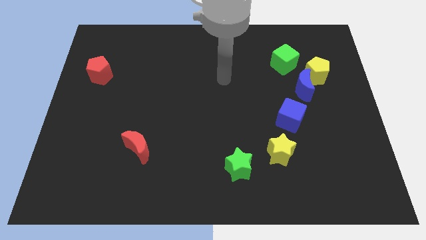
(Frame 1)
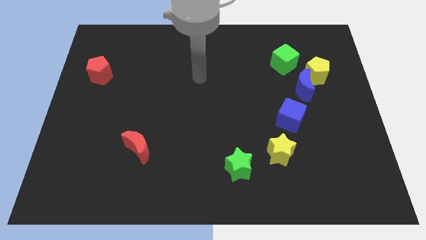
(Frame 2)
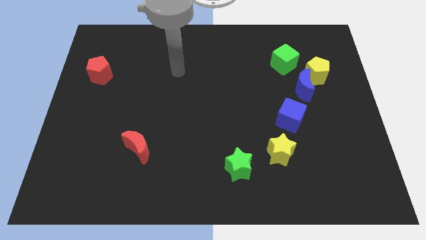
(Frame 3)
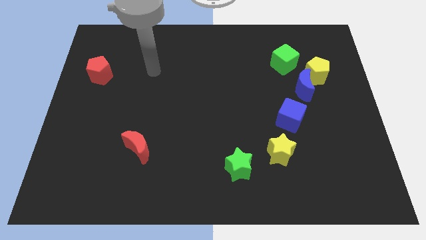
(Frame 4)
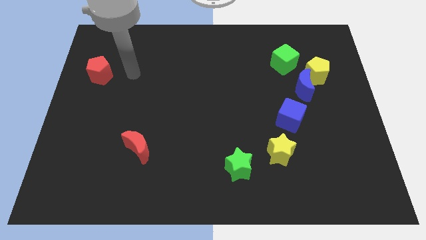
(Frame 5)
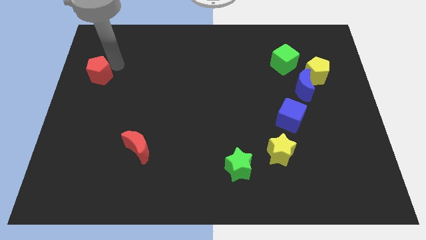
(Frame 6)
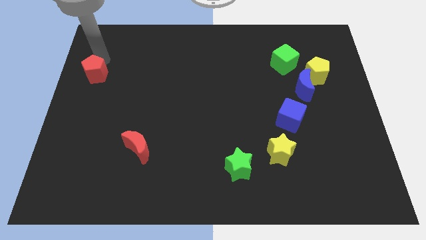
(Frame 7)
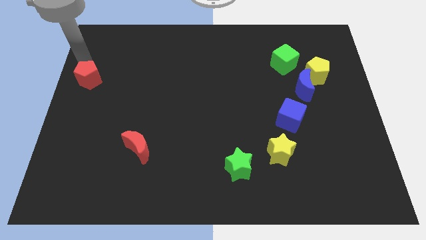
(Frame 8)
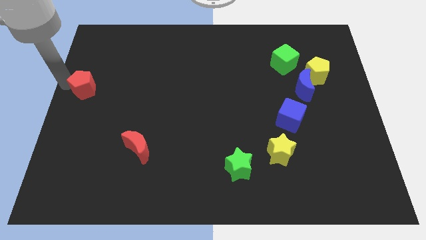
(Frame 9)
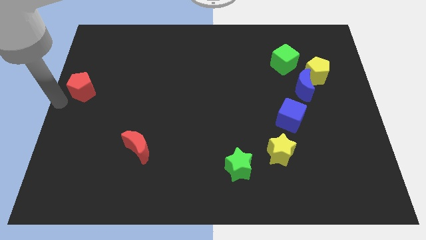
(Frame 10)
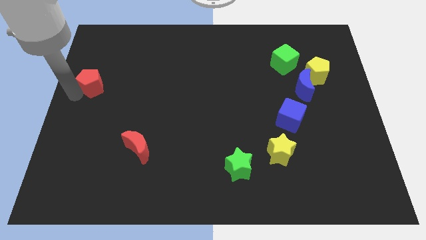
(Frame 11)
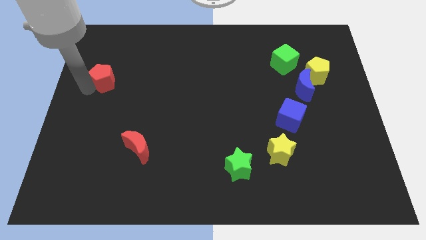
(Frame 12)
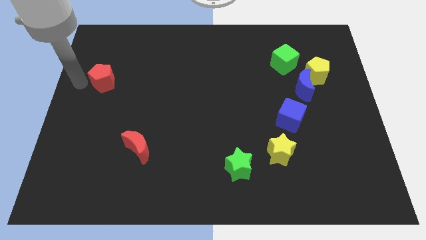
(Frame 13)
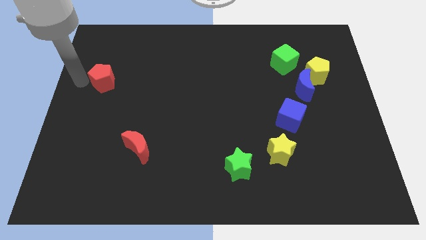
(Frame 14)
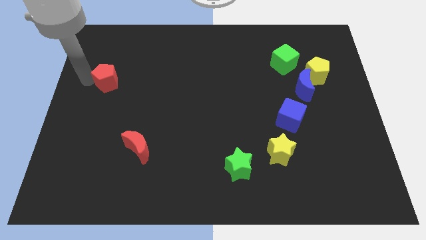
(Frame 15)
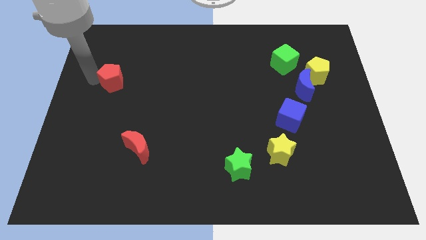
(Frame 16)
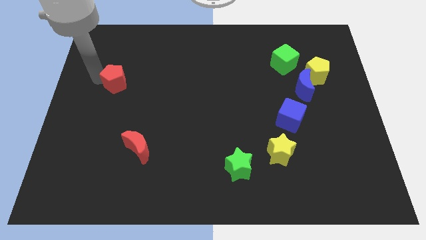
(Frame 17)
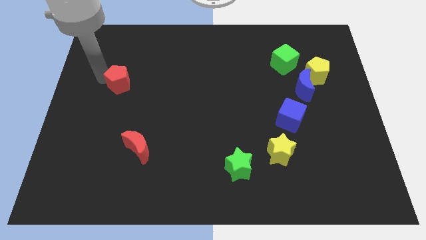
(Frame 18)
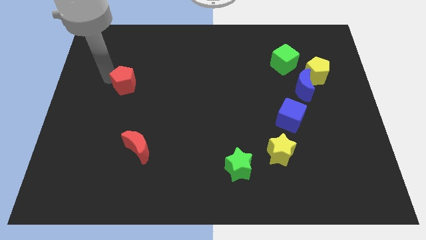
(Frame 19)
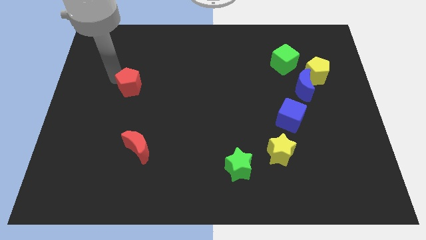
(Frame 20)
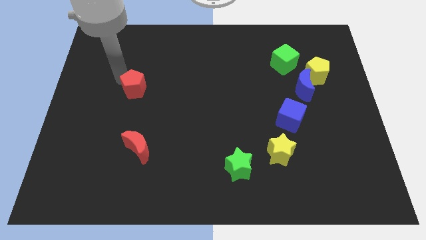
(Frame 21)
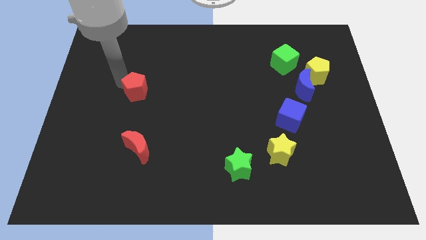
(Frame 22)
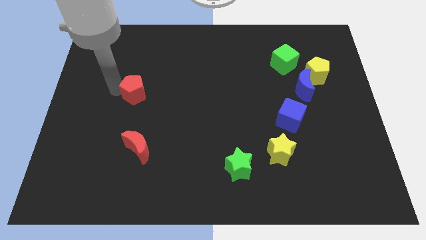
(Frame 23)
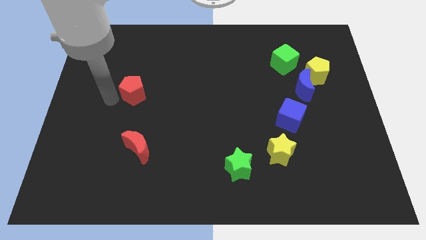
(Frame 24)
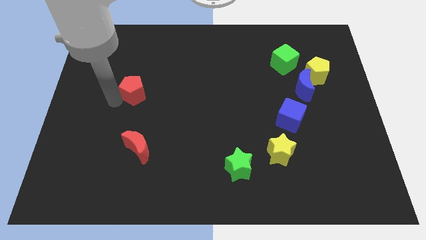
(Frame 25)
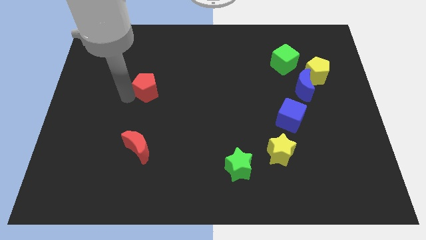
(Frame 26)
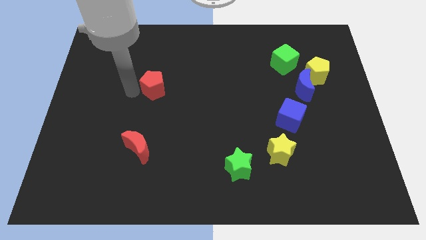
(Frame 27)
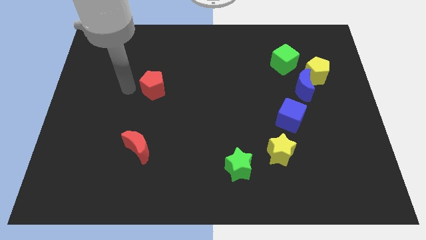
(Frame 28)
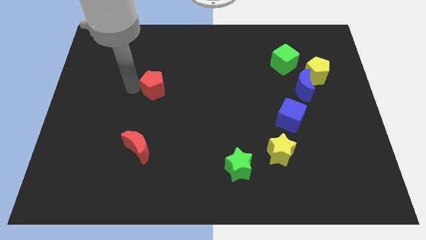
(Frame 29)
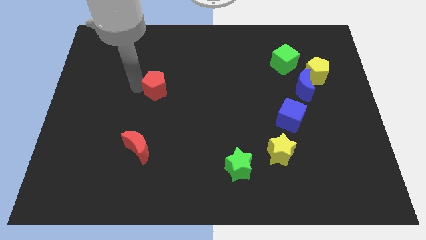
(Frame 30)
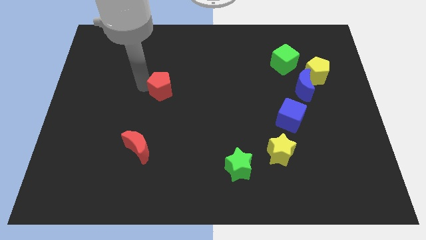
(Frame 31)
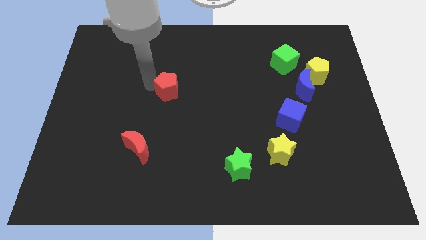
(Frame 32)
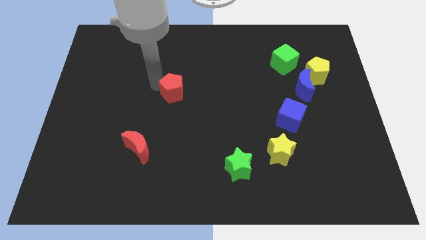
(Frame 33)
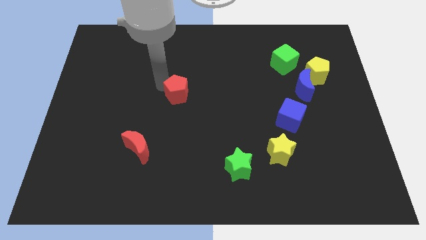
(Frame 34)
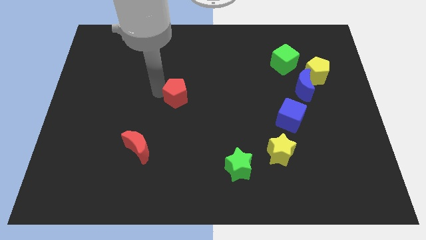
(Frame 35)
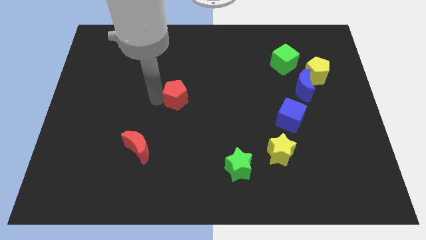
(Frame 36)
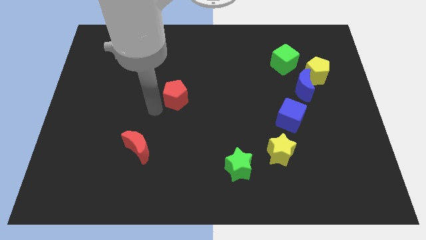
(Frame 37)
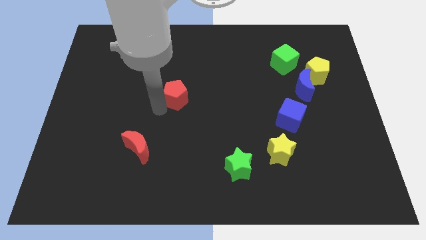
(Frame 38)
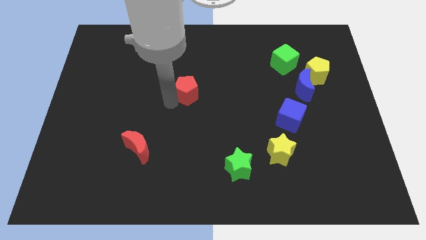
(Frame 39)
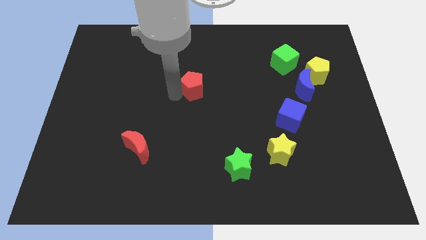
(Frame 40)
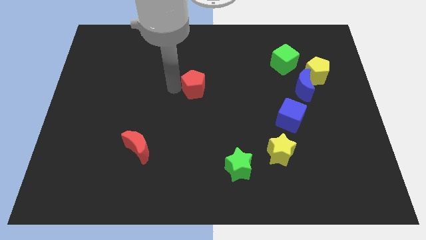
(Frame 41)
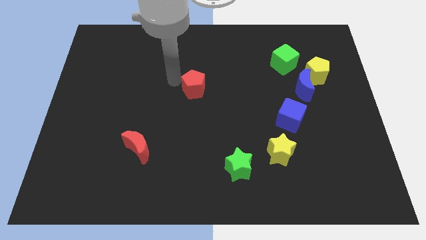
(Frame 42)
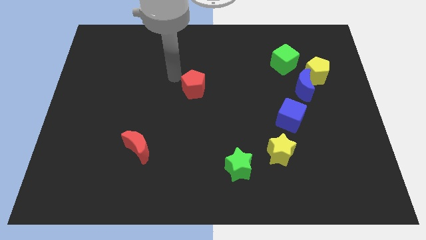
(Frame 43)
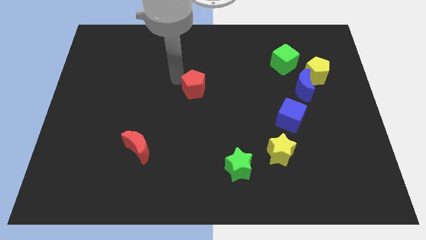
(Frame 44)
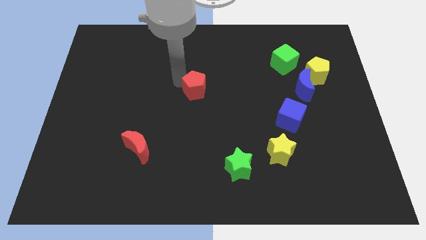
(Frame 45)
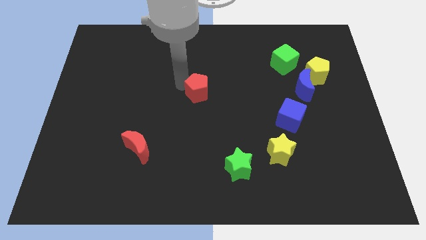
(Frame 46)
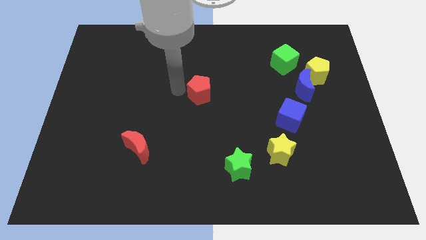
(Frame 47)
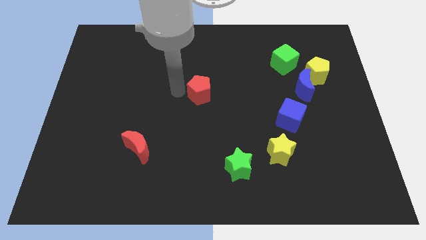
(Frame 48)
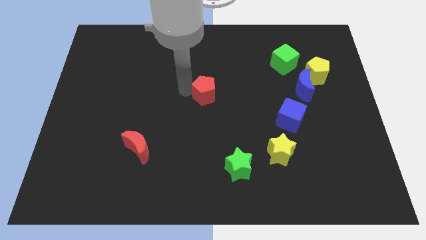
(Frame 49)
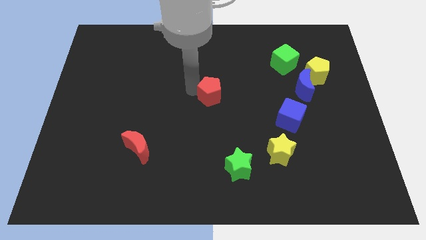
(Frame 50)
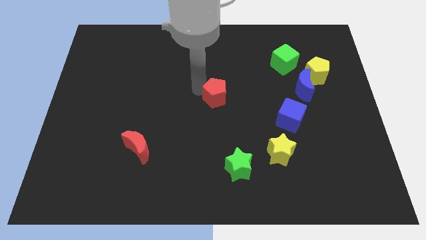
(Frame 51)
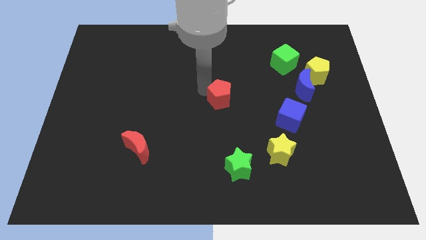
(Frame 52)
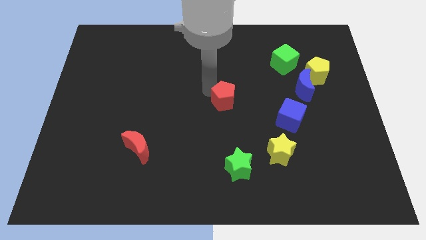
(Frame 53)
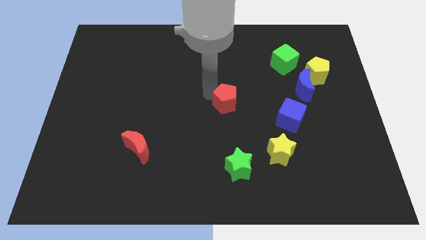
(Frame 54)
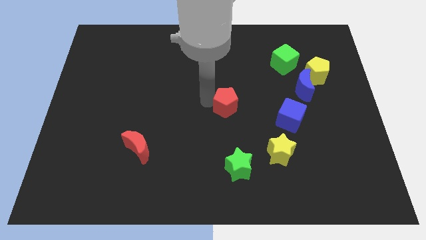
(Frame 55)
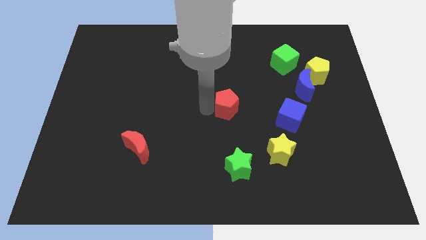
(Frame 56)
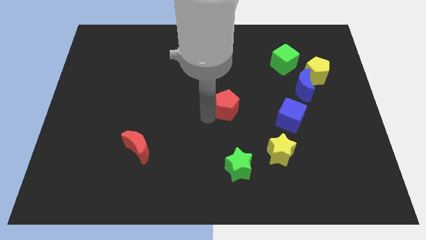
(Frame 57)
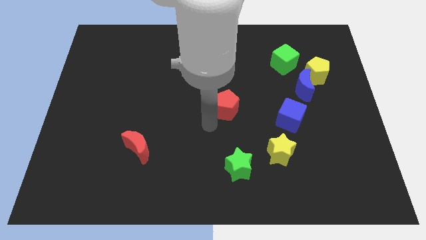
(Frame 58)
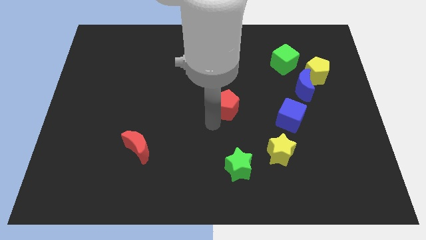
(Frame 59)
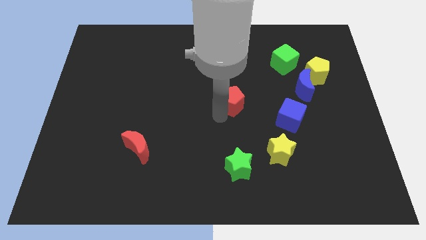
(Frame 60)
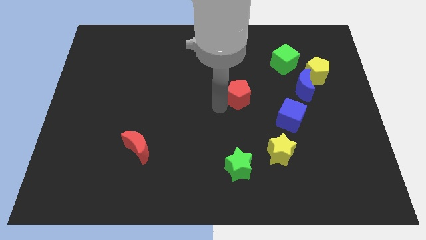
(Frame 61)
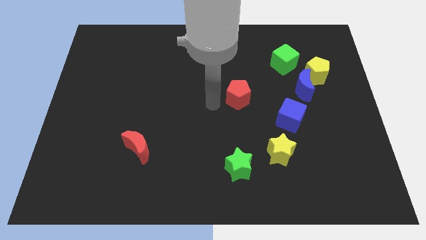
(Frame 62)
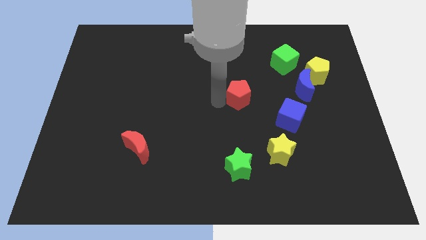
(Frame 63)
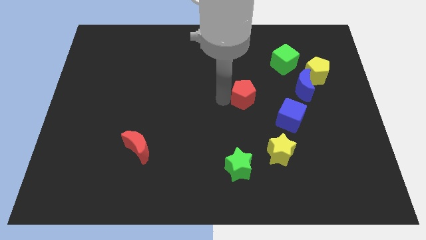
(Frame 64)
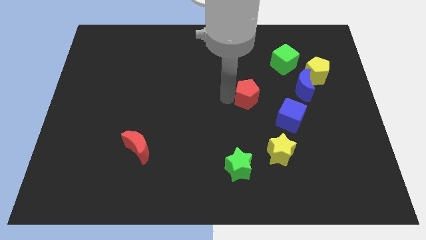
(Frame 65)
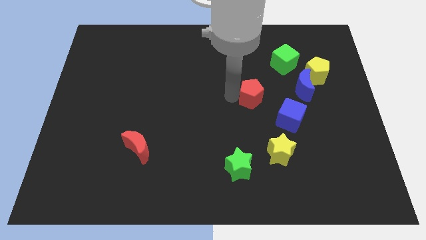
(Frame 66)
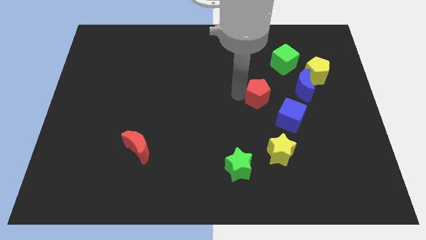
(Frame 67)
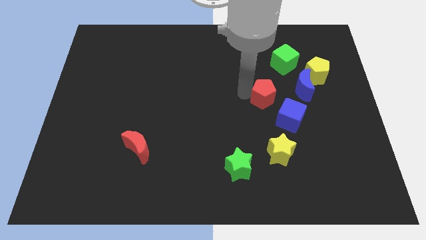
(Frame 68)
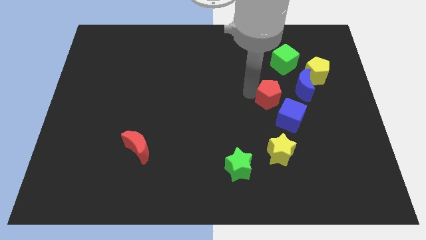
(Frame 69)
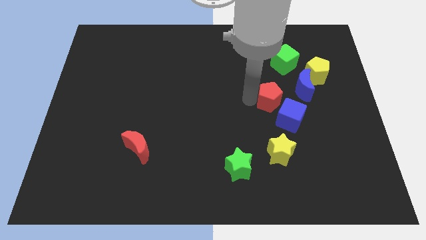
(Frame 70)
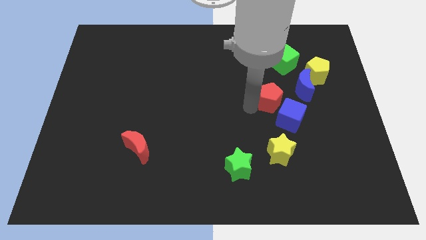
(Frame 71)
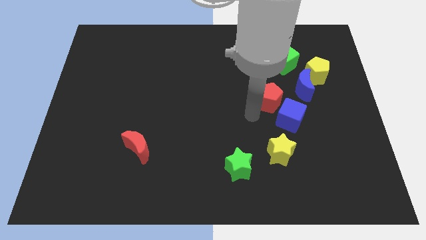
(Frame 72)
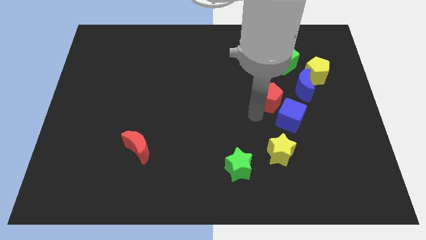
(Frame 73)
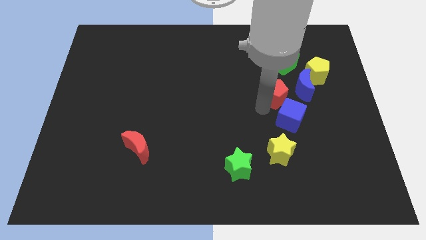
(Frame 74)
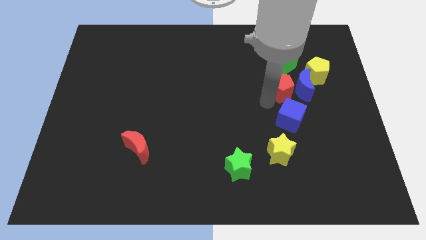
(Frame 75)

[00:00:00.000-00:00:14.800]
push the red pentagon next to the blue moon

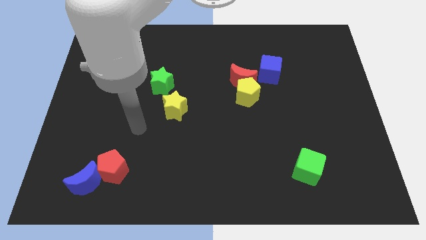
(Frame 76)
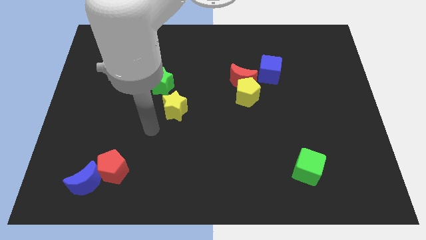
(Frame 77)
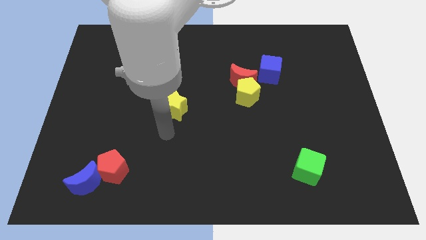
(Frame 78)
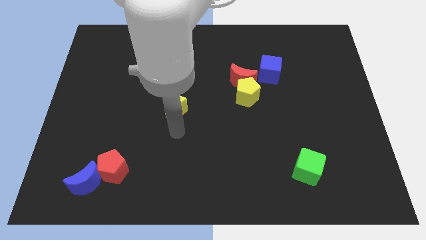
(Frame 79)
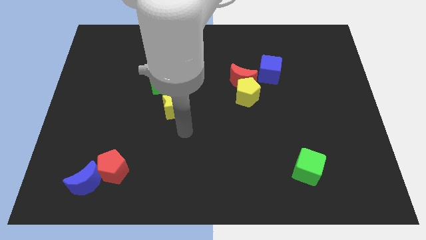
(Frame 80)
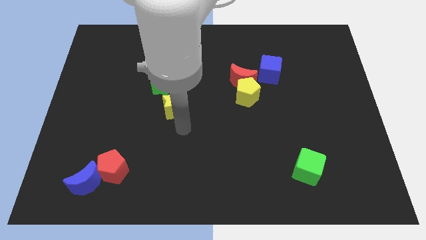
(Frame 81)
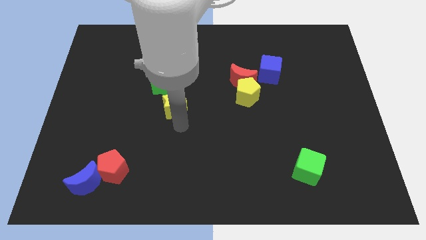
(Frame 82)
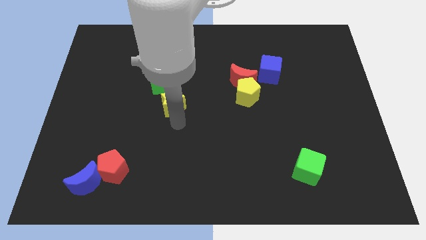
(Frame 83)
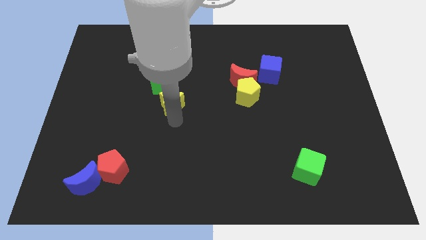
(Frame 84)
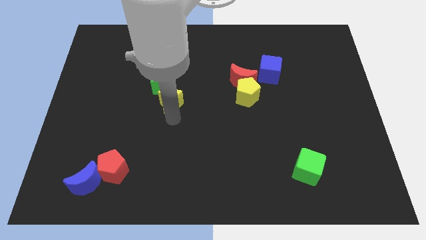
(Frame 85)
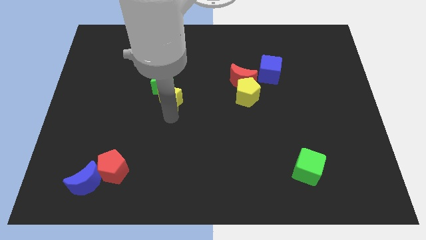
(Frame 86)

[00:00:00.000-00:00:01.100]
move the yellow star to the green star
